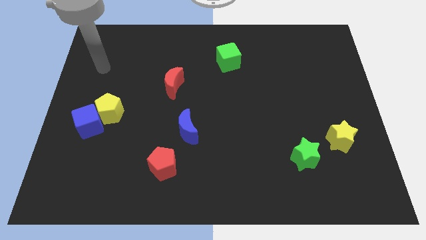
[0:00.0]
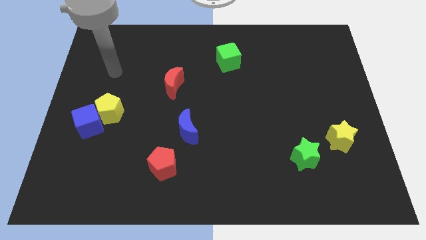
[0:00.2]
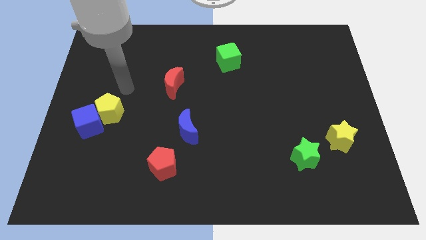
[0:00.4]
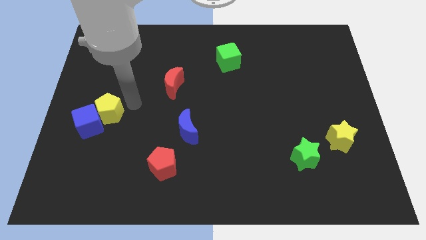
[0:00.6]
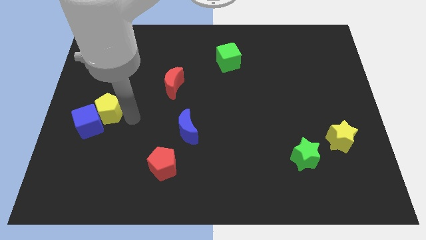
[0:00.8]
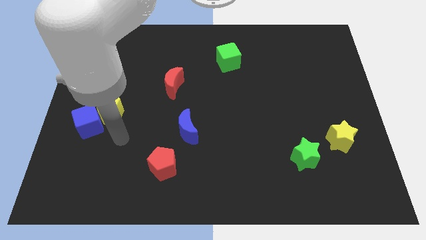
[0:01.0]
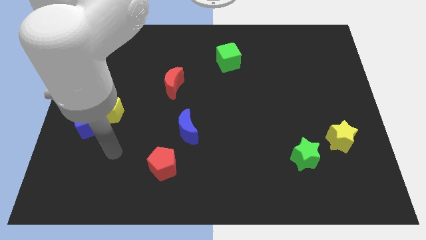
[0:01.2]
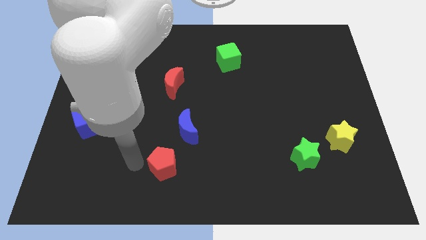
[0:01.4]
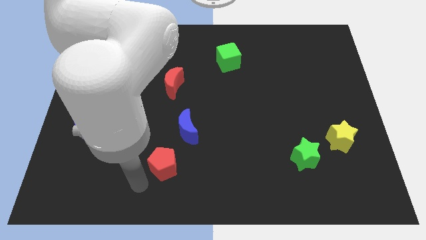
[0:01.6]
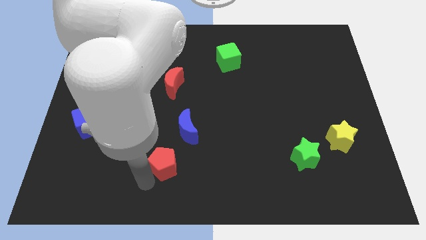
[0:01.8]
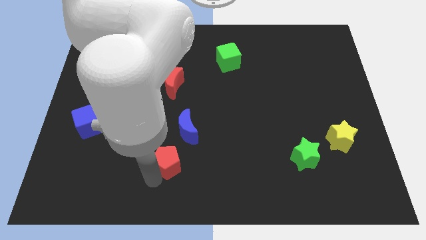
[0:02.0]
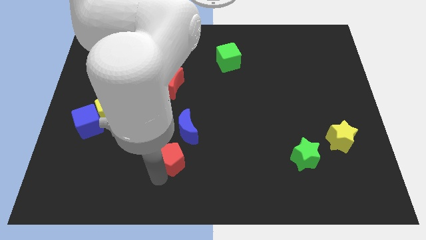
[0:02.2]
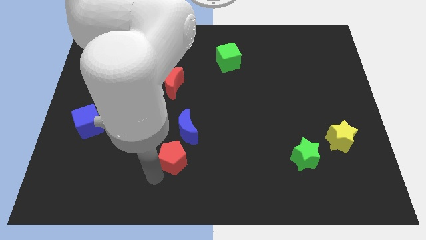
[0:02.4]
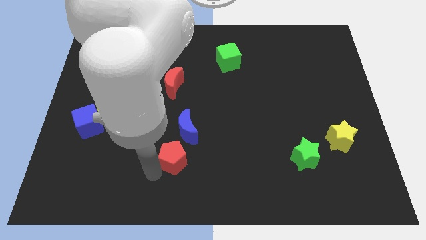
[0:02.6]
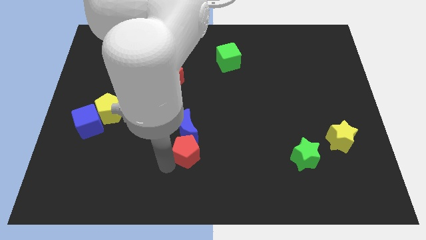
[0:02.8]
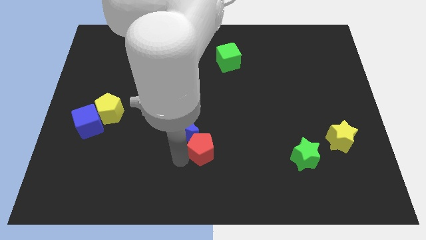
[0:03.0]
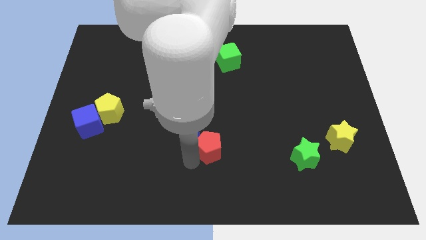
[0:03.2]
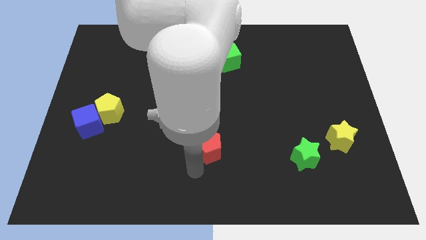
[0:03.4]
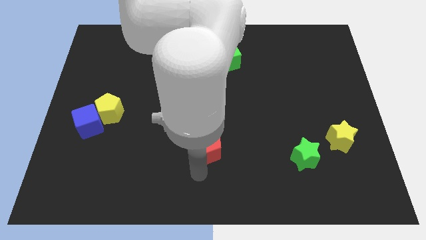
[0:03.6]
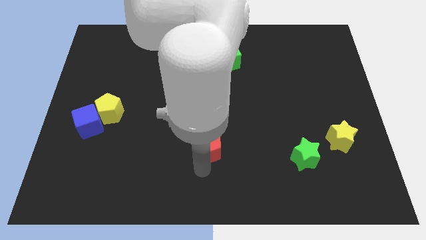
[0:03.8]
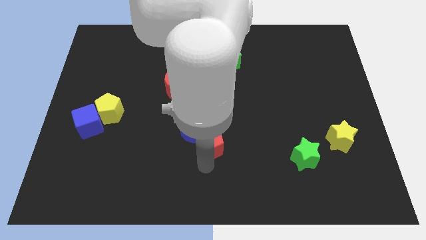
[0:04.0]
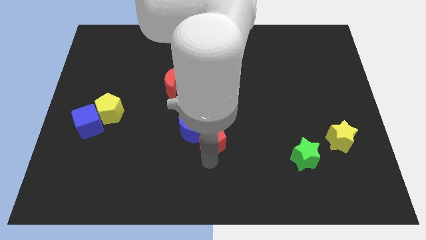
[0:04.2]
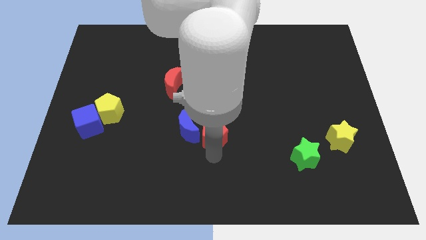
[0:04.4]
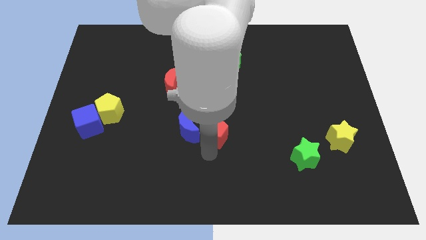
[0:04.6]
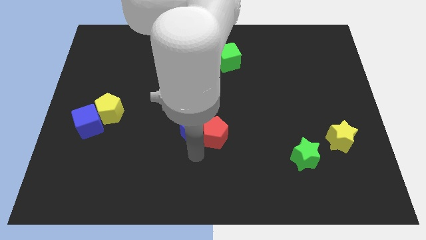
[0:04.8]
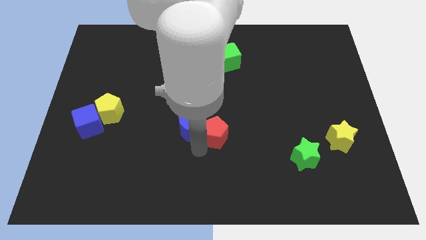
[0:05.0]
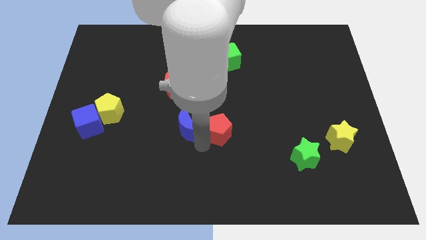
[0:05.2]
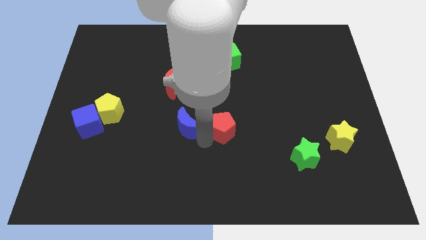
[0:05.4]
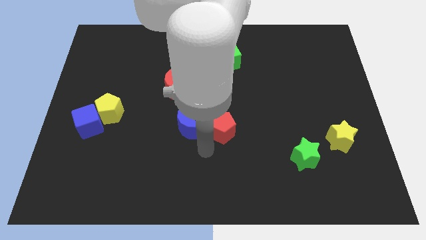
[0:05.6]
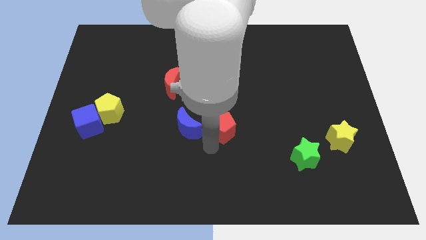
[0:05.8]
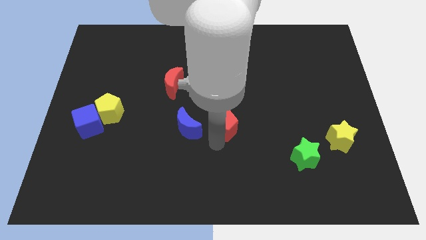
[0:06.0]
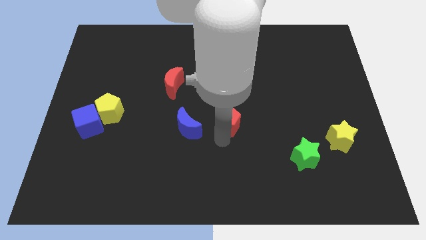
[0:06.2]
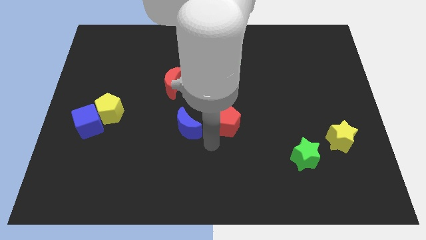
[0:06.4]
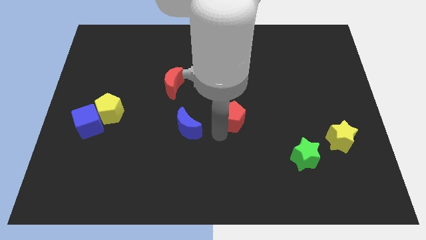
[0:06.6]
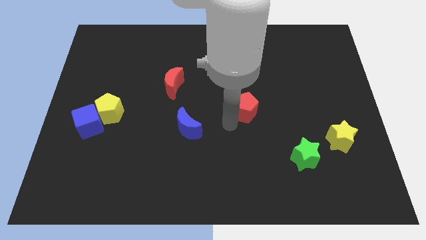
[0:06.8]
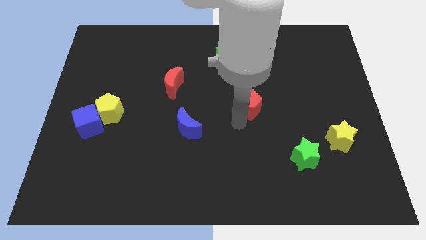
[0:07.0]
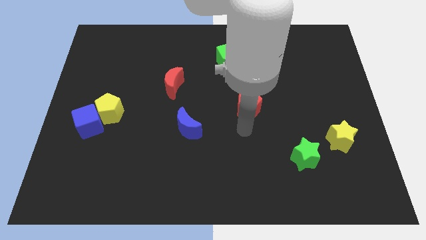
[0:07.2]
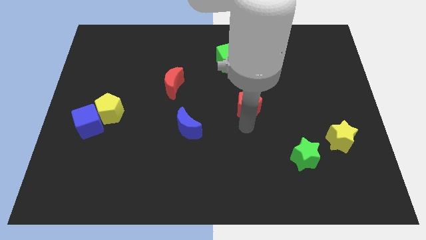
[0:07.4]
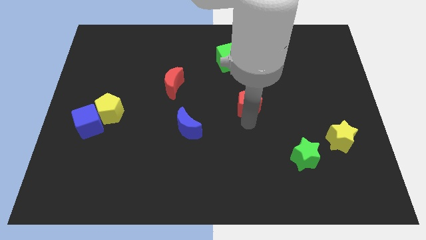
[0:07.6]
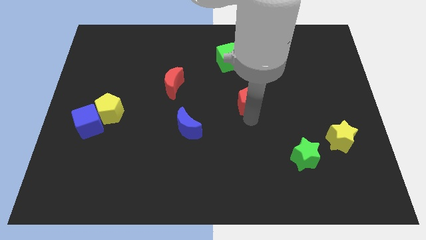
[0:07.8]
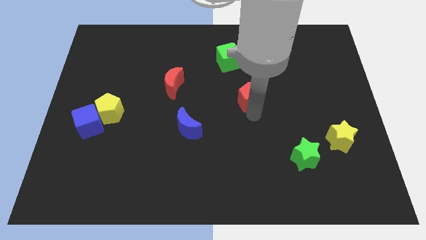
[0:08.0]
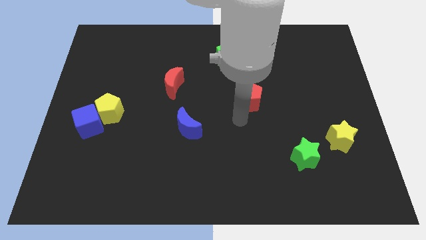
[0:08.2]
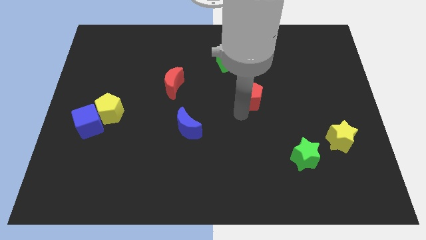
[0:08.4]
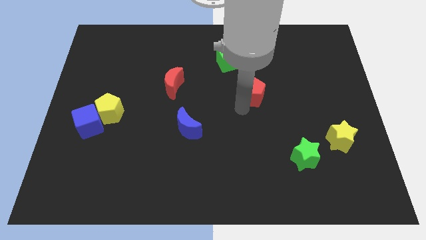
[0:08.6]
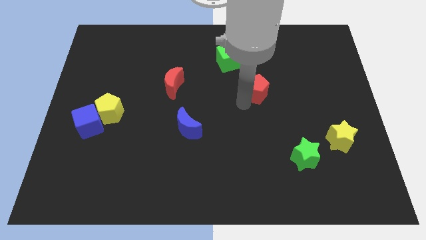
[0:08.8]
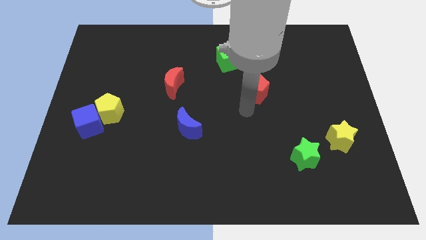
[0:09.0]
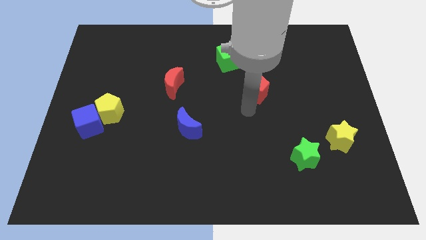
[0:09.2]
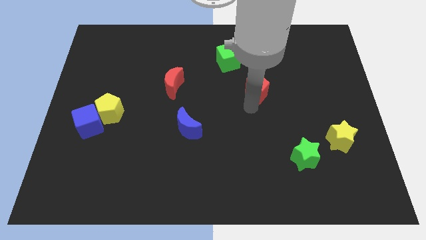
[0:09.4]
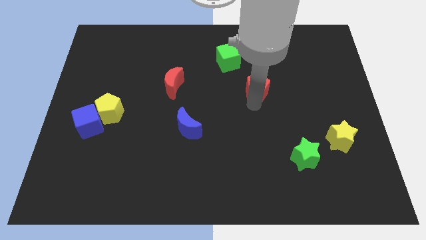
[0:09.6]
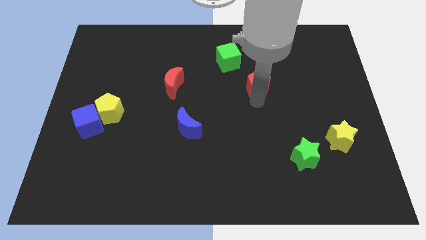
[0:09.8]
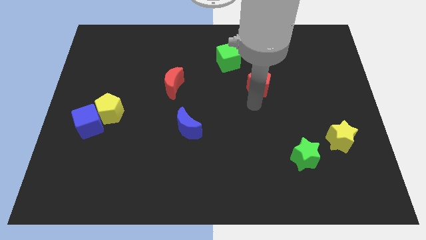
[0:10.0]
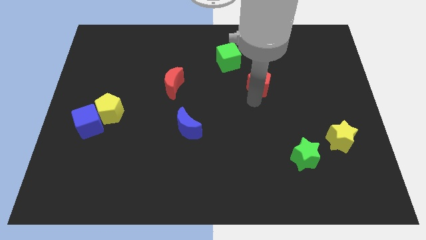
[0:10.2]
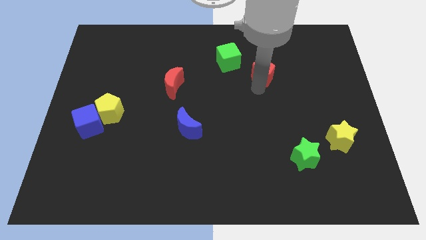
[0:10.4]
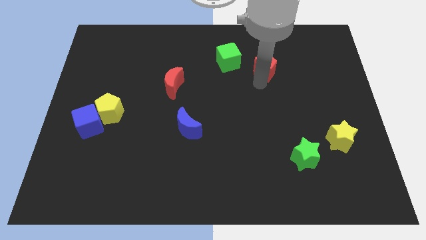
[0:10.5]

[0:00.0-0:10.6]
push the red pentagon to the right of the green cube
